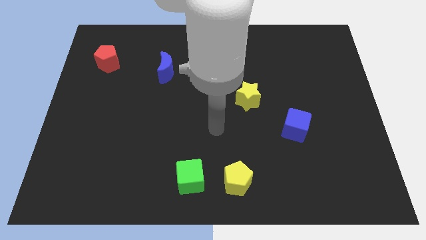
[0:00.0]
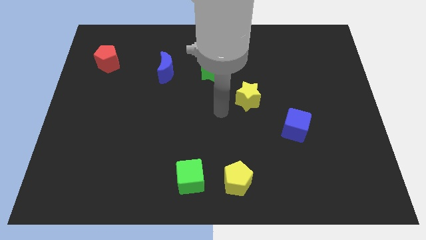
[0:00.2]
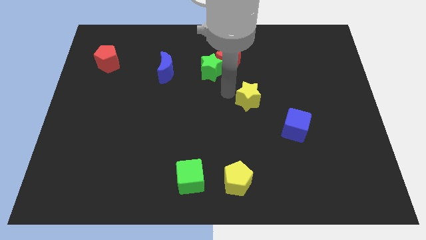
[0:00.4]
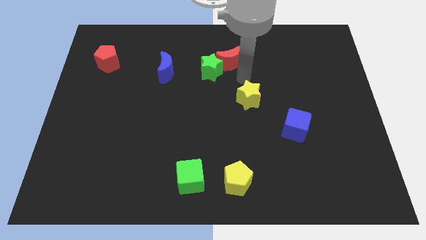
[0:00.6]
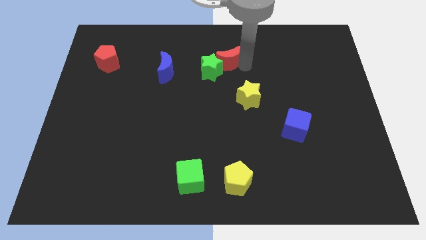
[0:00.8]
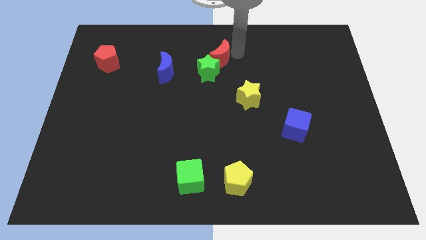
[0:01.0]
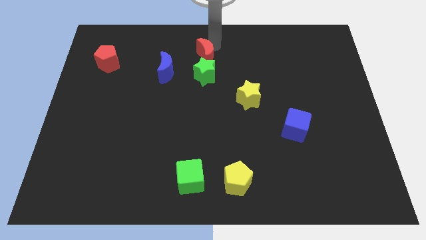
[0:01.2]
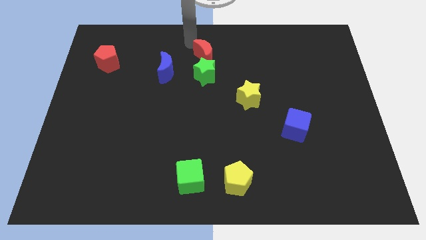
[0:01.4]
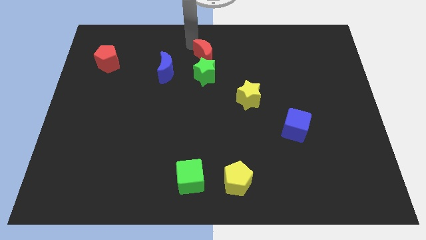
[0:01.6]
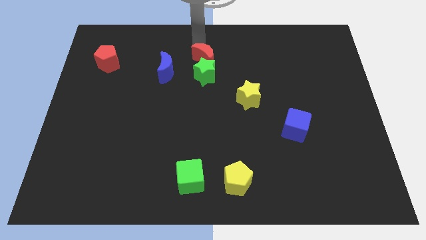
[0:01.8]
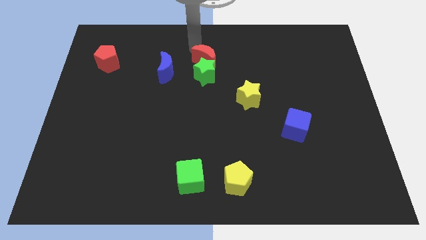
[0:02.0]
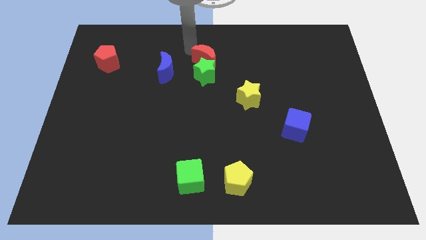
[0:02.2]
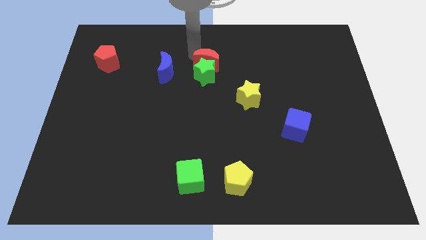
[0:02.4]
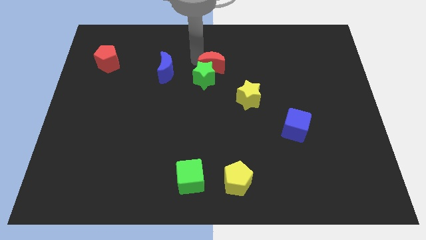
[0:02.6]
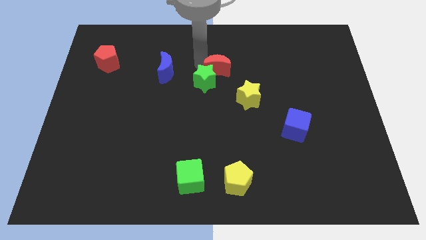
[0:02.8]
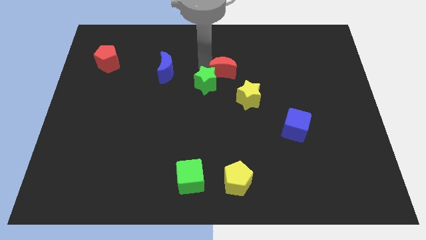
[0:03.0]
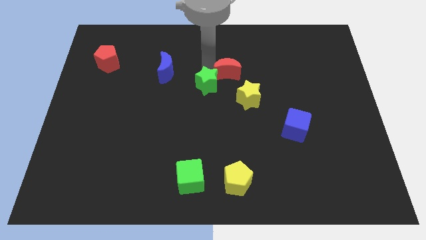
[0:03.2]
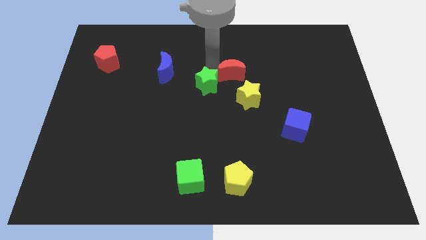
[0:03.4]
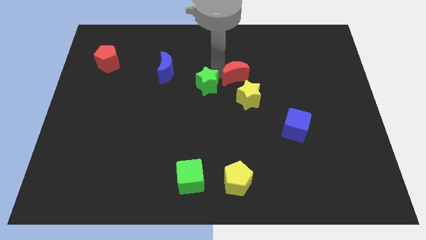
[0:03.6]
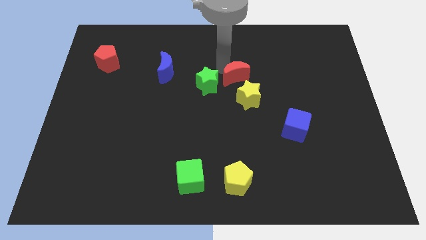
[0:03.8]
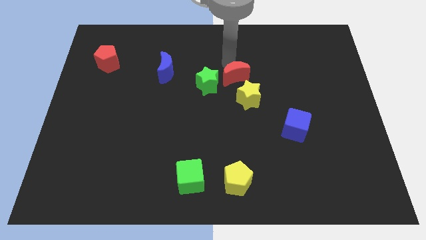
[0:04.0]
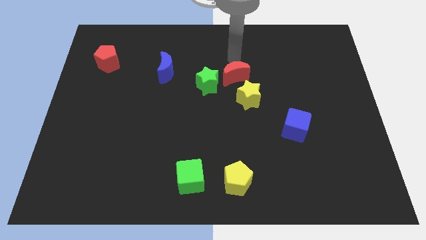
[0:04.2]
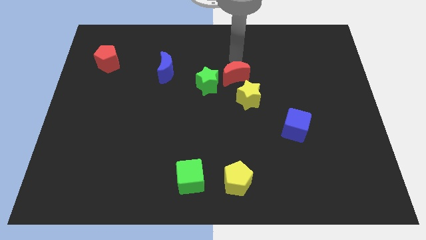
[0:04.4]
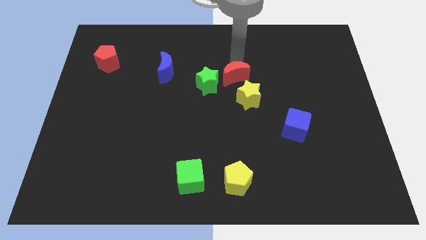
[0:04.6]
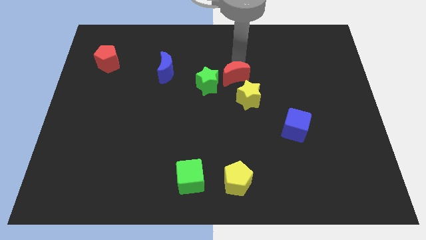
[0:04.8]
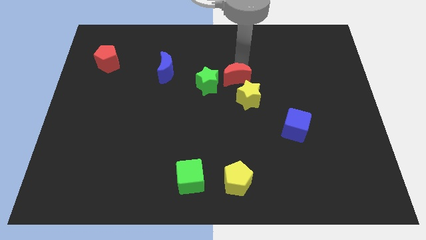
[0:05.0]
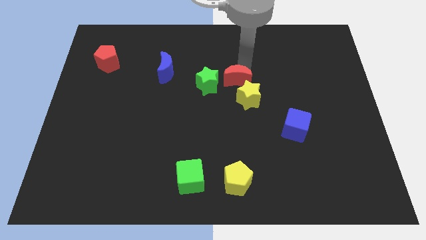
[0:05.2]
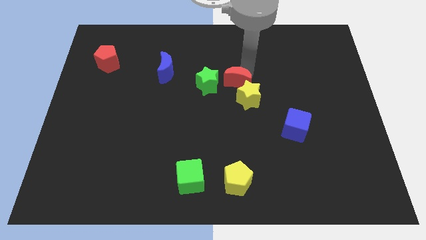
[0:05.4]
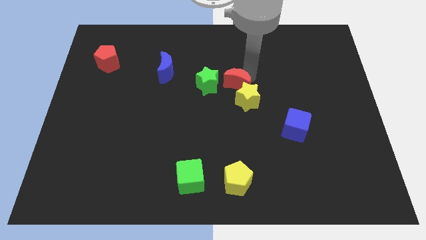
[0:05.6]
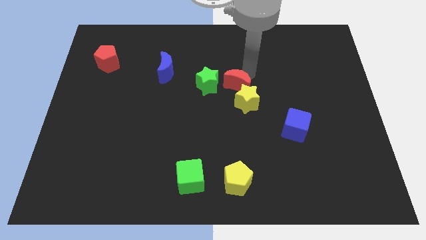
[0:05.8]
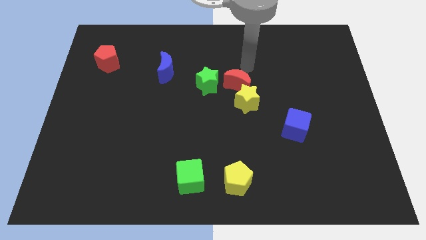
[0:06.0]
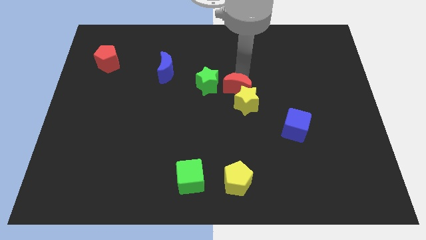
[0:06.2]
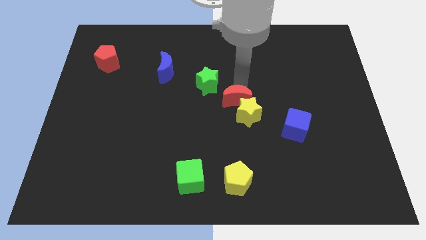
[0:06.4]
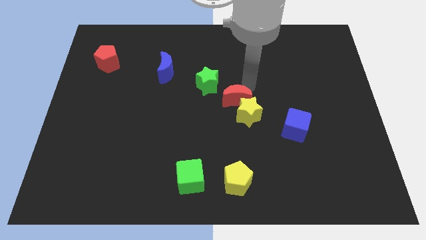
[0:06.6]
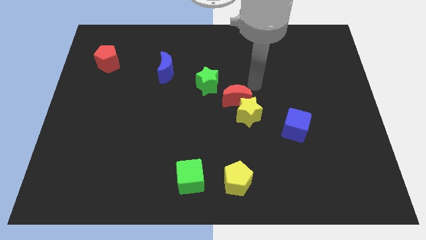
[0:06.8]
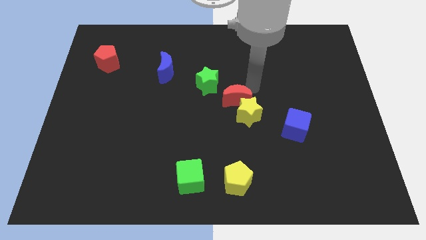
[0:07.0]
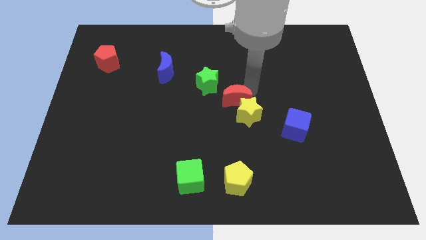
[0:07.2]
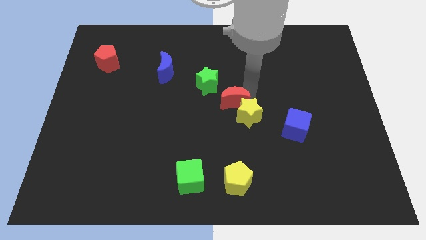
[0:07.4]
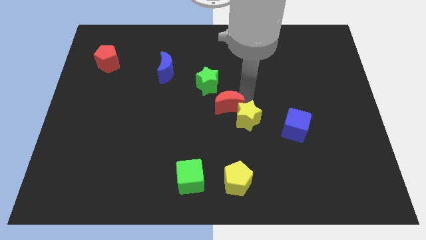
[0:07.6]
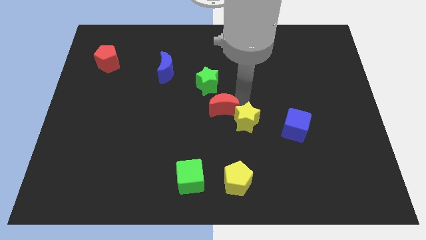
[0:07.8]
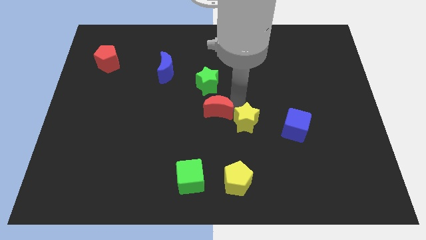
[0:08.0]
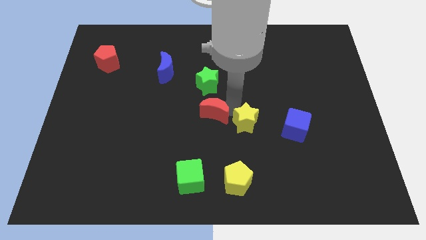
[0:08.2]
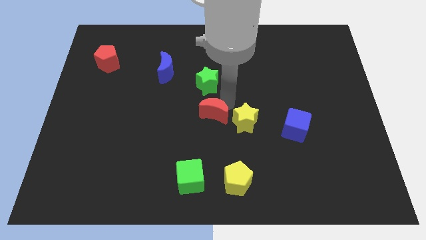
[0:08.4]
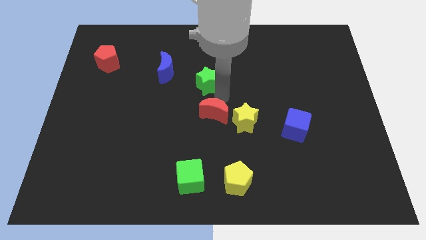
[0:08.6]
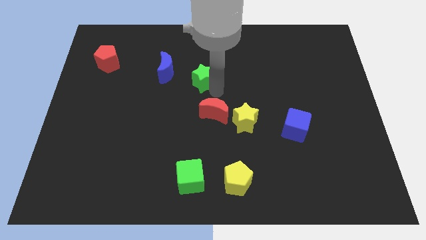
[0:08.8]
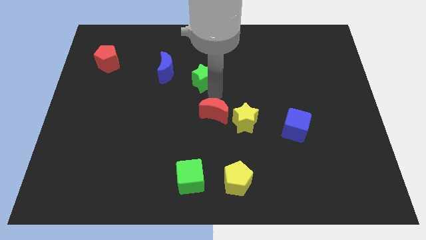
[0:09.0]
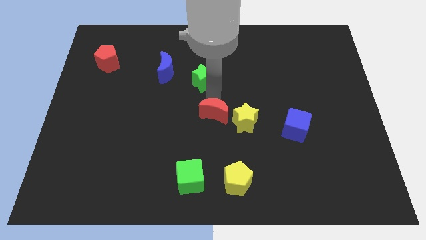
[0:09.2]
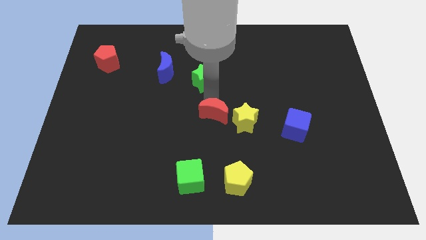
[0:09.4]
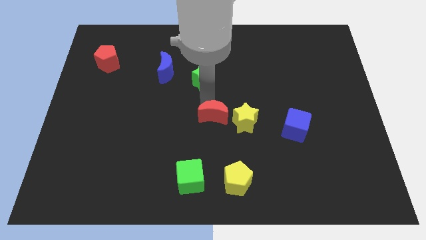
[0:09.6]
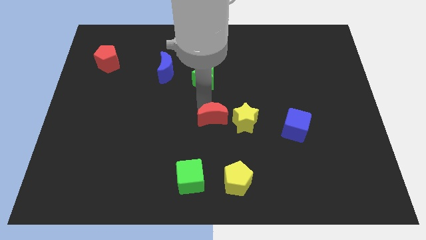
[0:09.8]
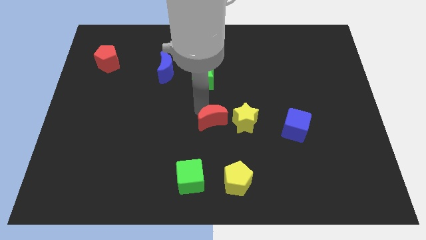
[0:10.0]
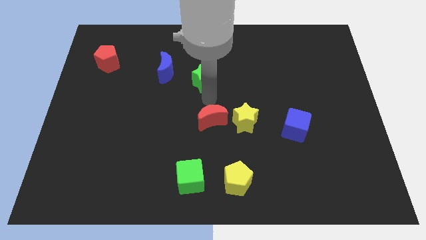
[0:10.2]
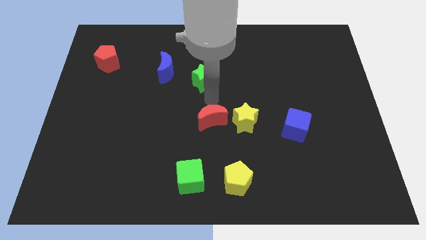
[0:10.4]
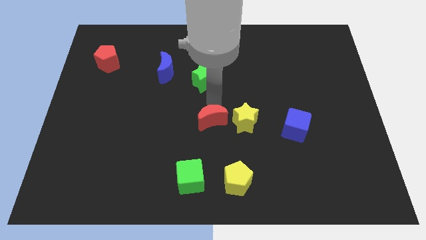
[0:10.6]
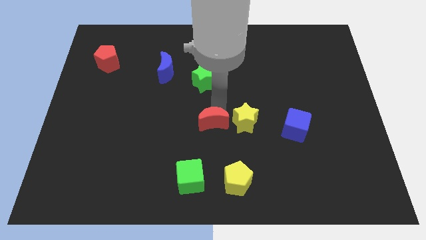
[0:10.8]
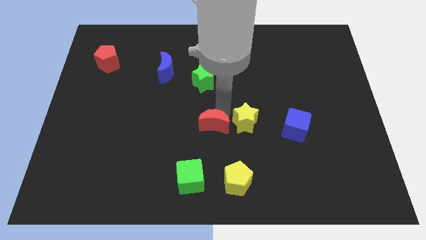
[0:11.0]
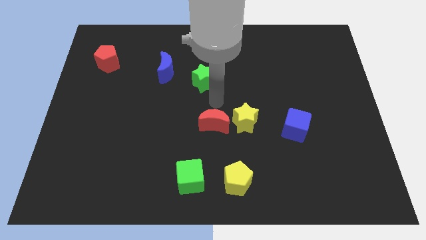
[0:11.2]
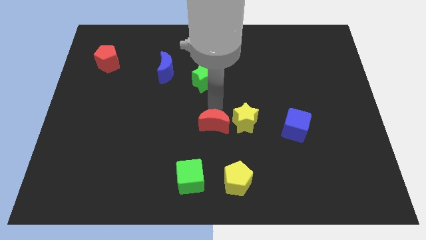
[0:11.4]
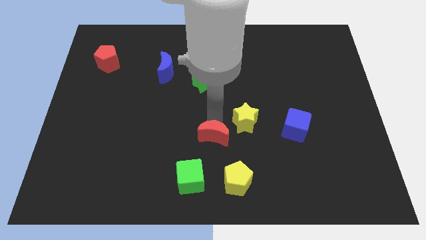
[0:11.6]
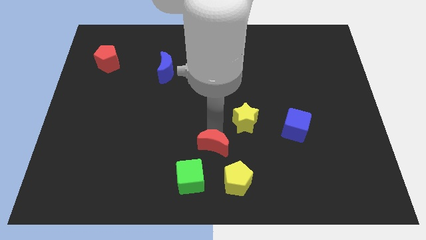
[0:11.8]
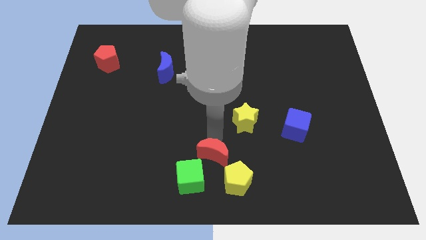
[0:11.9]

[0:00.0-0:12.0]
push the red moon to the bottom

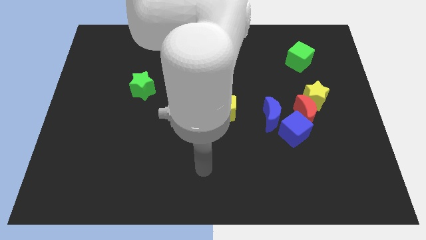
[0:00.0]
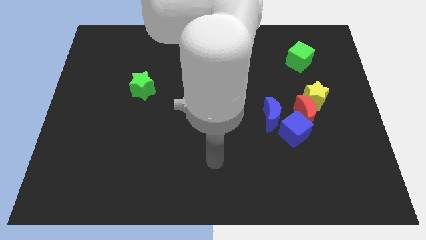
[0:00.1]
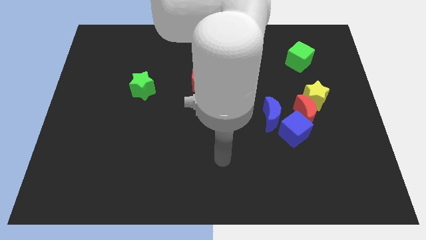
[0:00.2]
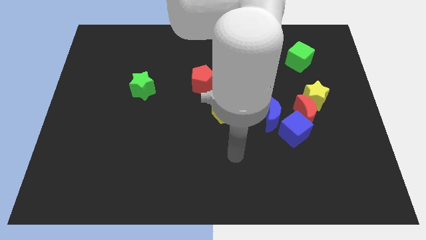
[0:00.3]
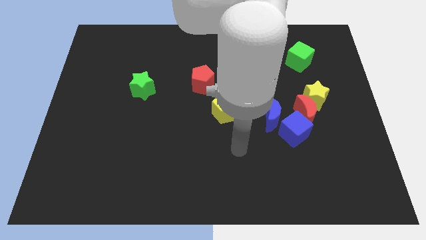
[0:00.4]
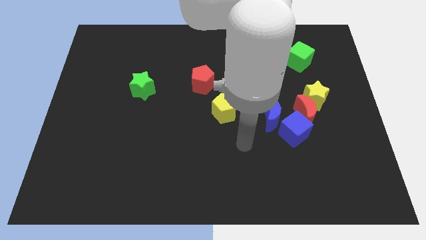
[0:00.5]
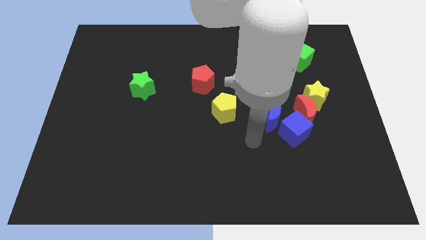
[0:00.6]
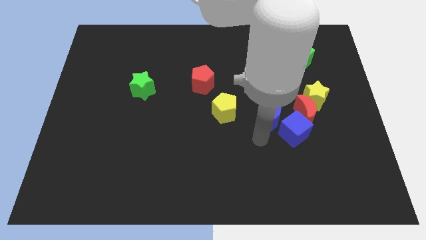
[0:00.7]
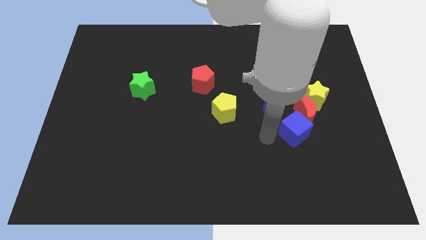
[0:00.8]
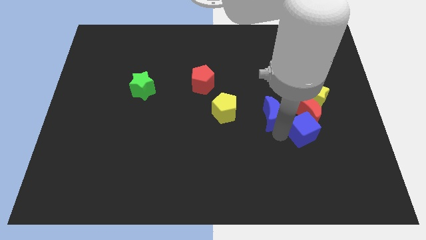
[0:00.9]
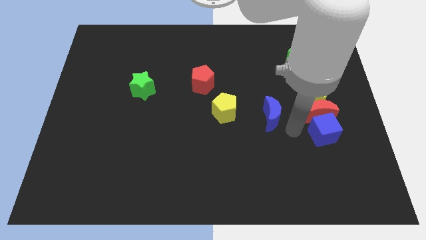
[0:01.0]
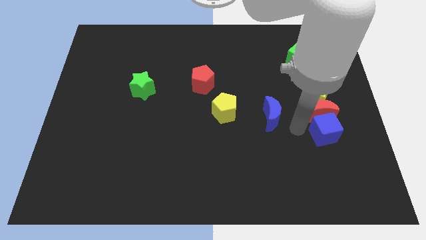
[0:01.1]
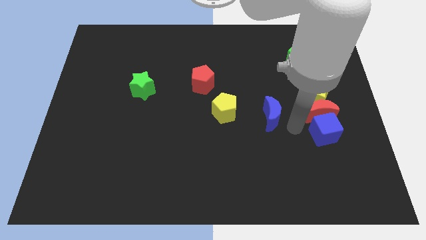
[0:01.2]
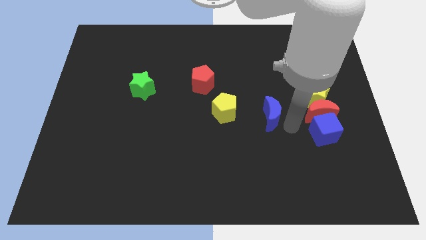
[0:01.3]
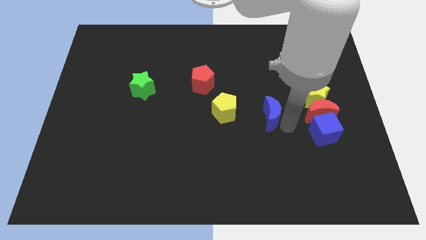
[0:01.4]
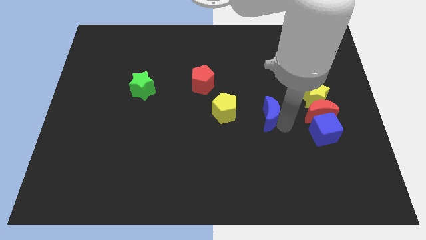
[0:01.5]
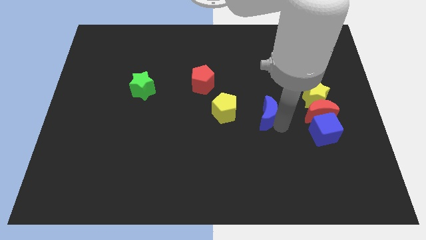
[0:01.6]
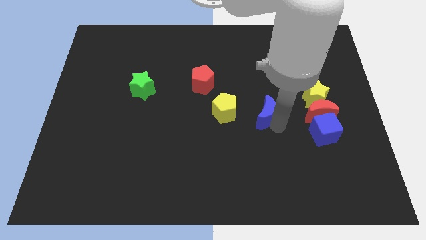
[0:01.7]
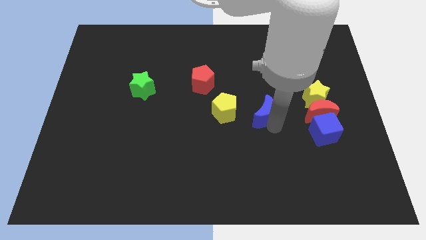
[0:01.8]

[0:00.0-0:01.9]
put the blue moon to the middle

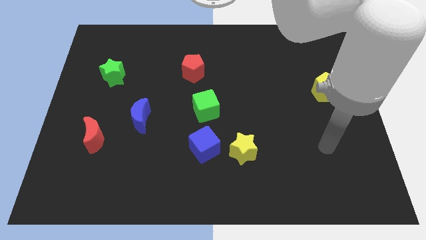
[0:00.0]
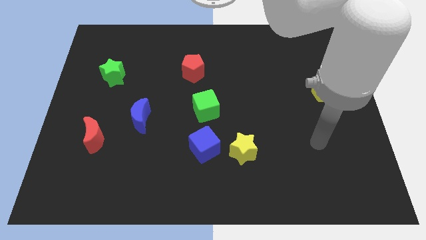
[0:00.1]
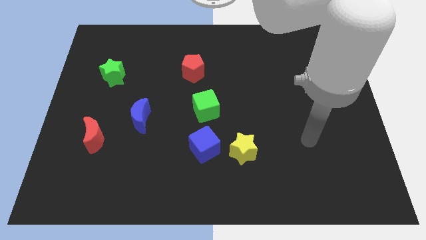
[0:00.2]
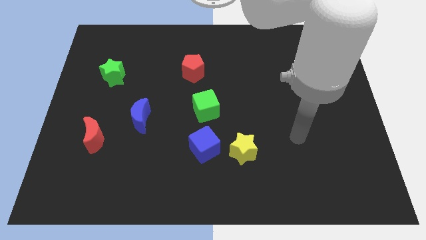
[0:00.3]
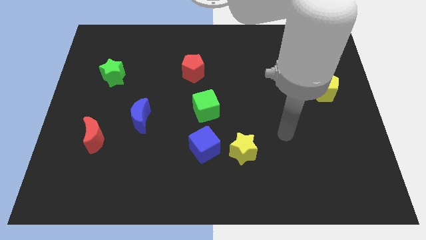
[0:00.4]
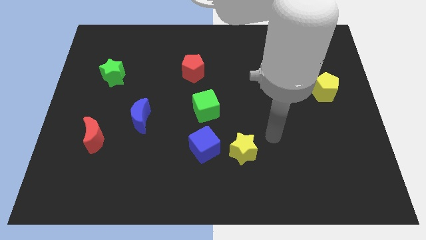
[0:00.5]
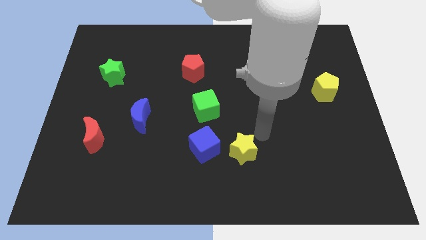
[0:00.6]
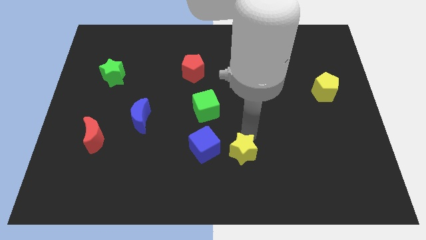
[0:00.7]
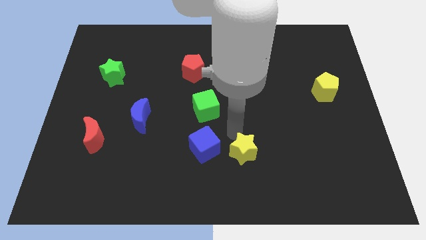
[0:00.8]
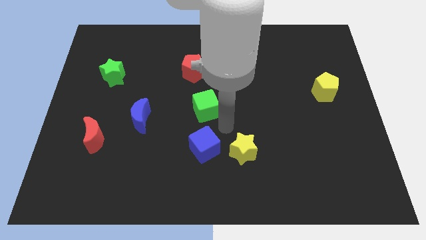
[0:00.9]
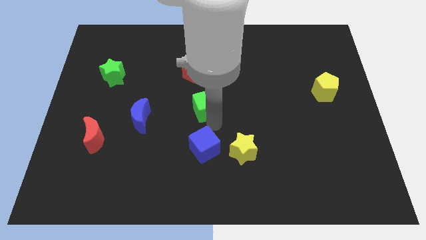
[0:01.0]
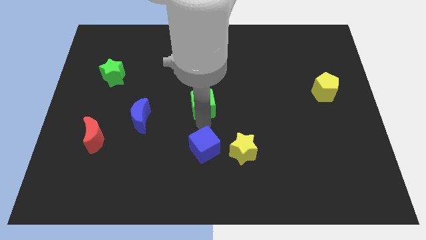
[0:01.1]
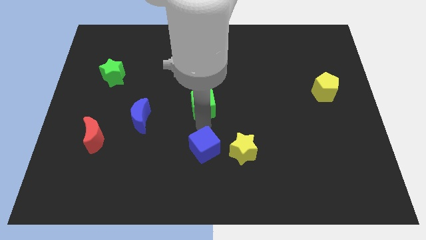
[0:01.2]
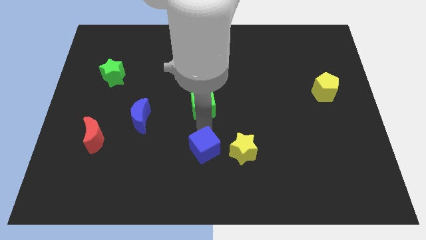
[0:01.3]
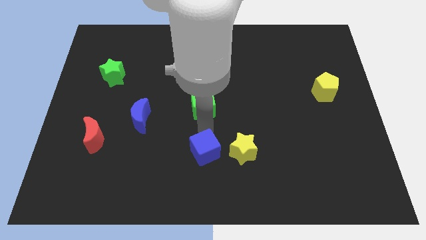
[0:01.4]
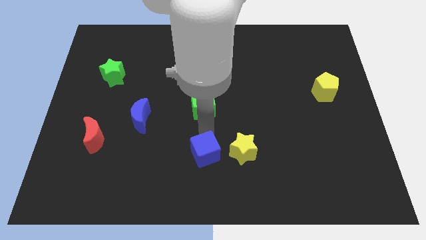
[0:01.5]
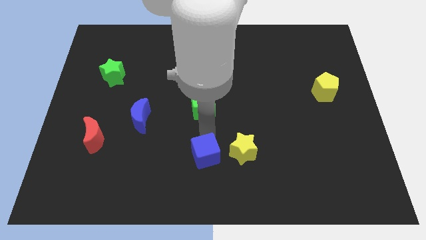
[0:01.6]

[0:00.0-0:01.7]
move the blue cube to the bottom side
